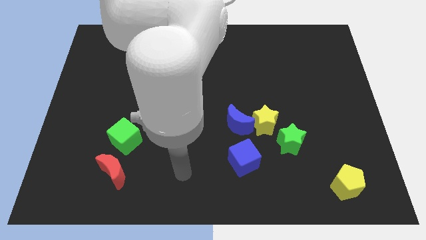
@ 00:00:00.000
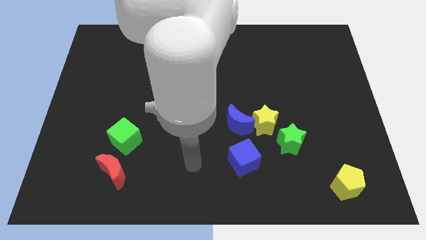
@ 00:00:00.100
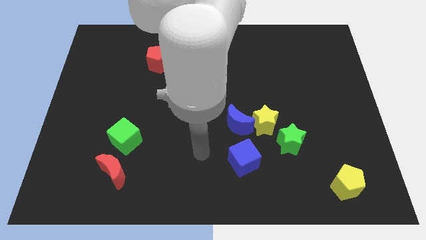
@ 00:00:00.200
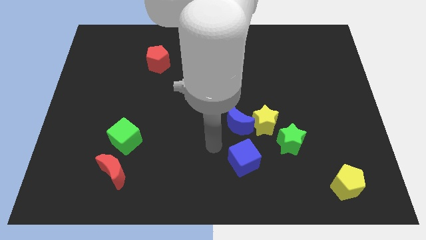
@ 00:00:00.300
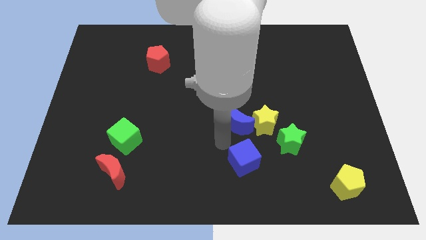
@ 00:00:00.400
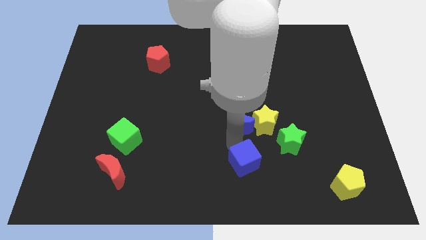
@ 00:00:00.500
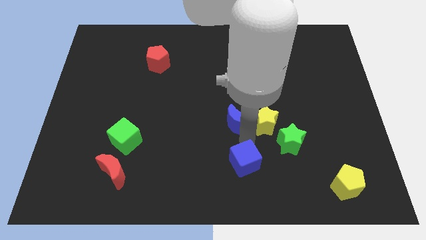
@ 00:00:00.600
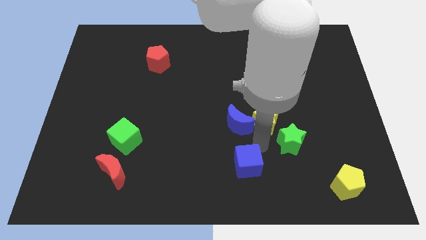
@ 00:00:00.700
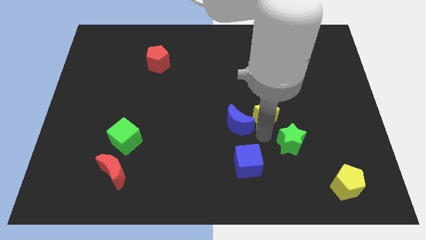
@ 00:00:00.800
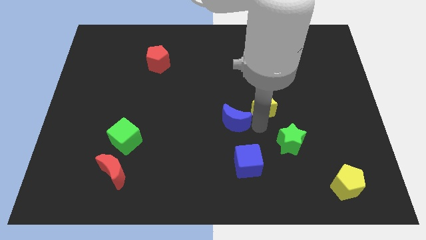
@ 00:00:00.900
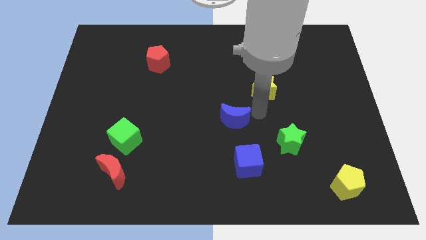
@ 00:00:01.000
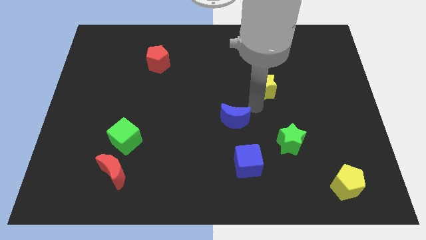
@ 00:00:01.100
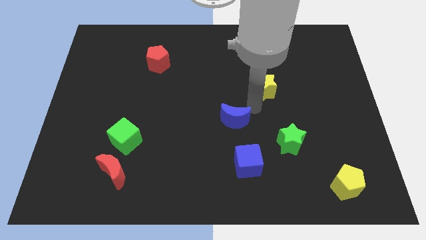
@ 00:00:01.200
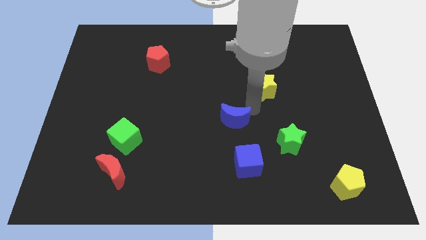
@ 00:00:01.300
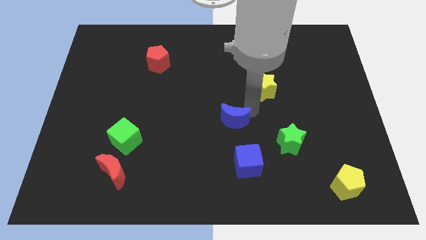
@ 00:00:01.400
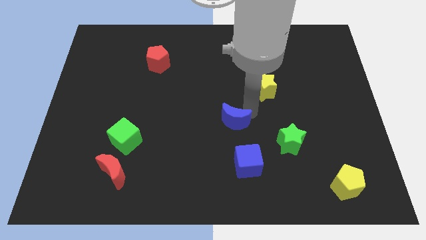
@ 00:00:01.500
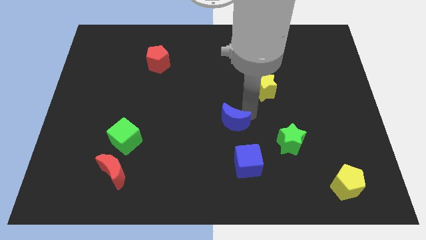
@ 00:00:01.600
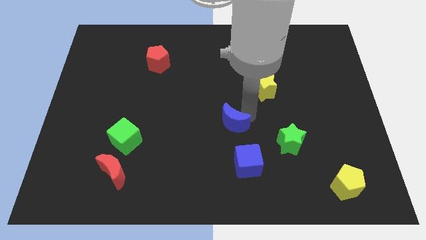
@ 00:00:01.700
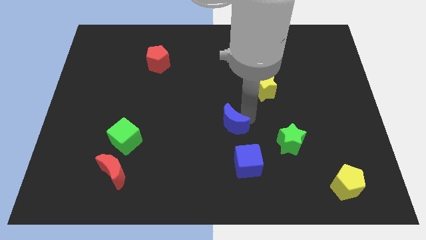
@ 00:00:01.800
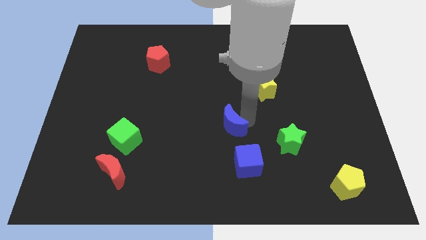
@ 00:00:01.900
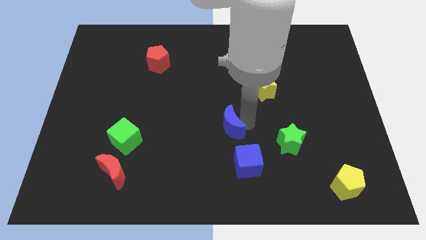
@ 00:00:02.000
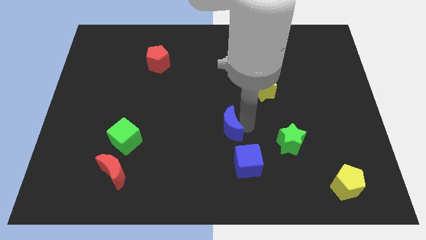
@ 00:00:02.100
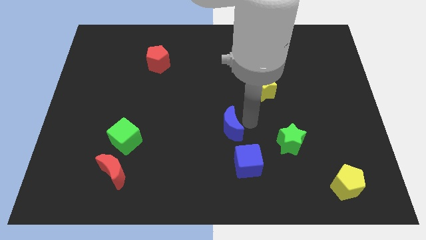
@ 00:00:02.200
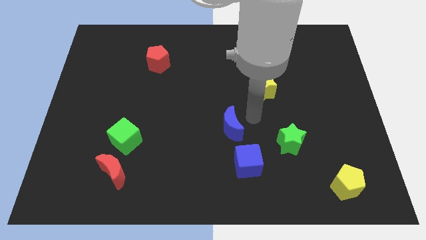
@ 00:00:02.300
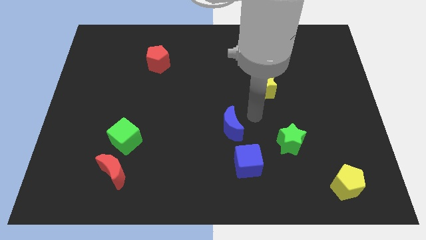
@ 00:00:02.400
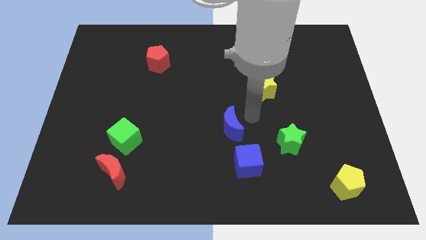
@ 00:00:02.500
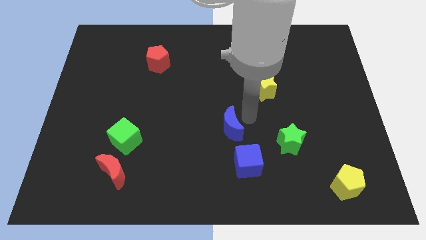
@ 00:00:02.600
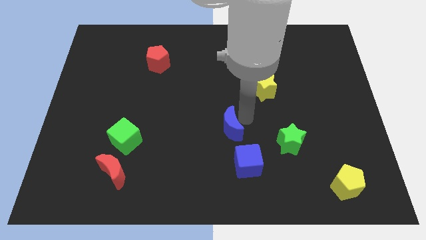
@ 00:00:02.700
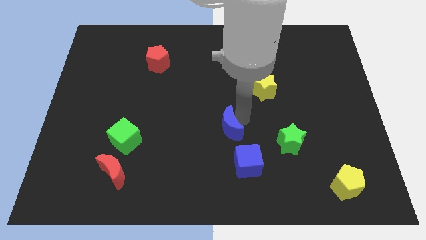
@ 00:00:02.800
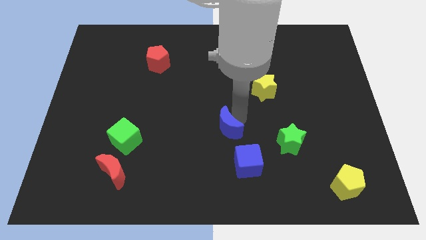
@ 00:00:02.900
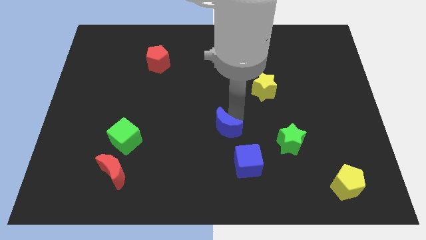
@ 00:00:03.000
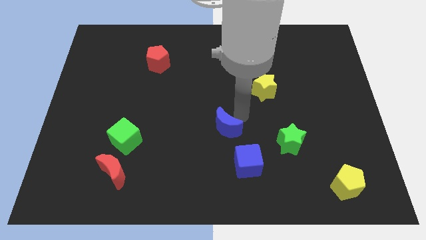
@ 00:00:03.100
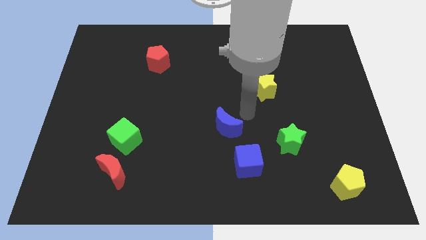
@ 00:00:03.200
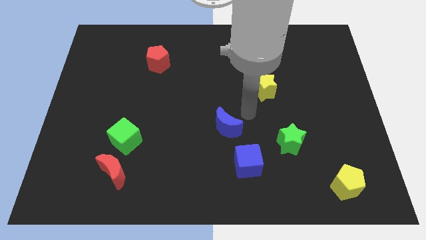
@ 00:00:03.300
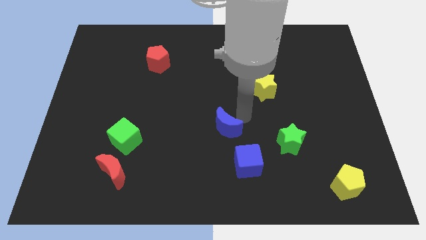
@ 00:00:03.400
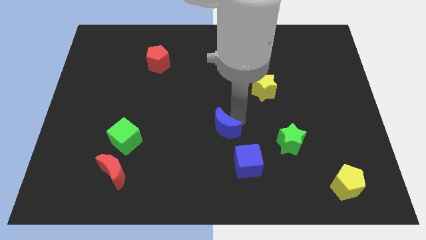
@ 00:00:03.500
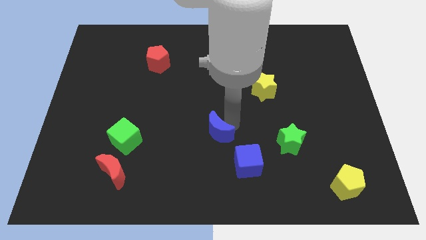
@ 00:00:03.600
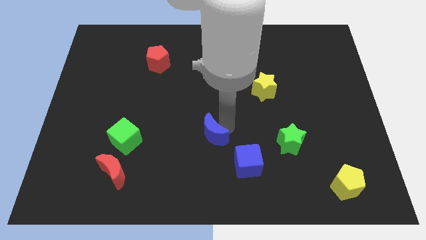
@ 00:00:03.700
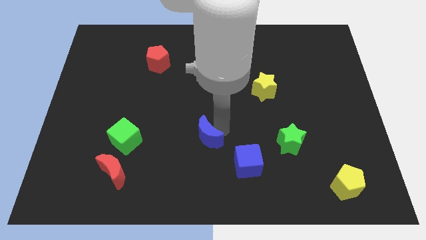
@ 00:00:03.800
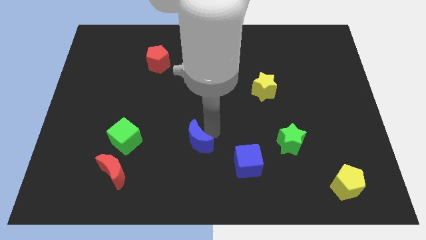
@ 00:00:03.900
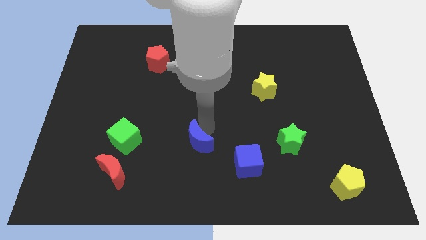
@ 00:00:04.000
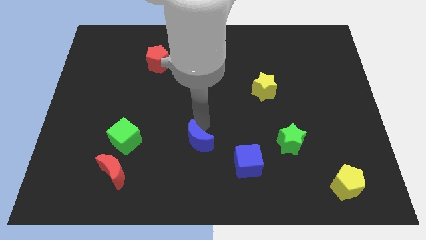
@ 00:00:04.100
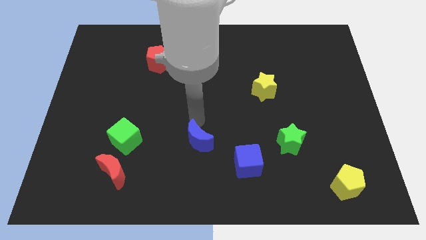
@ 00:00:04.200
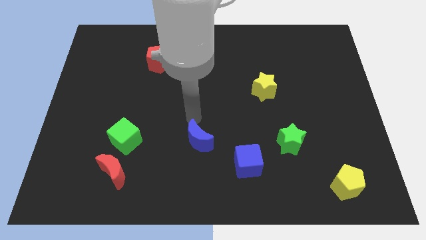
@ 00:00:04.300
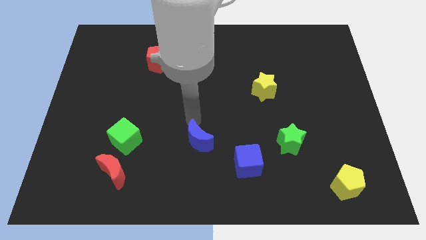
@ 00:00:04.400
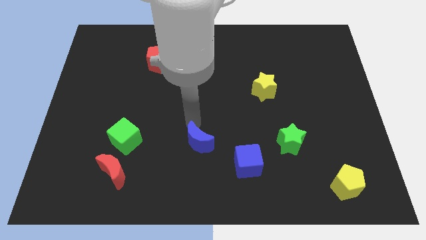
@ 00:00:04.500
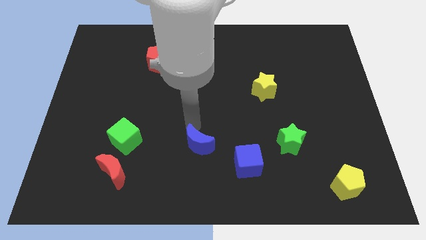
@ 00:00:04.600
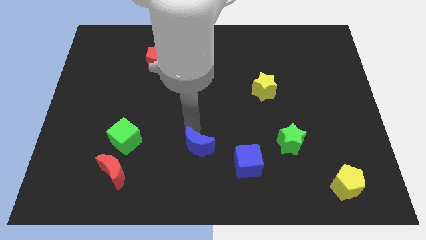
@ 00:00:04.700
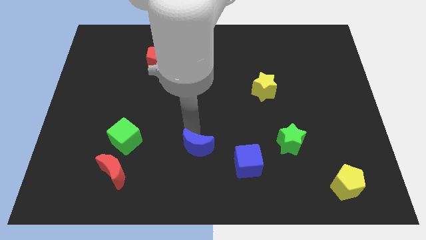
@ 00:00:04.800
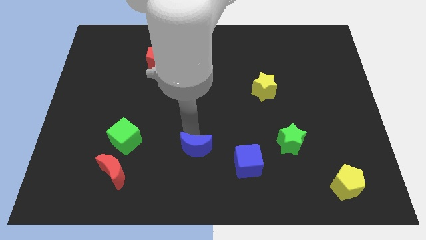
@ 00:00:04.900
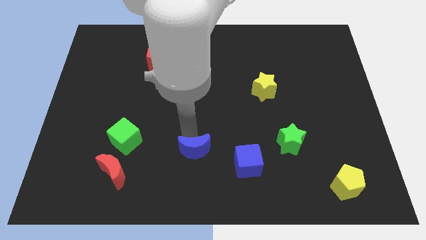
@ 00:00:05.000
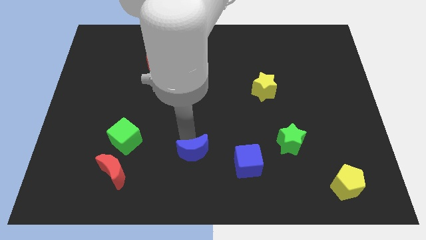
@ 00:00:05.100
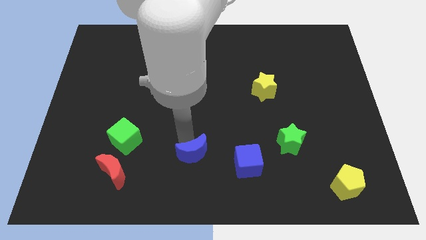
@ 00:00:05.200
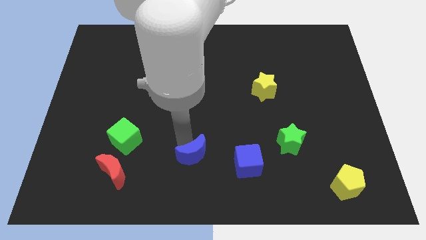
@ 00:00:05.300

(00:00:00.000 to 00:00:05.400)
move the blue moon to the bottom side

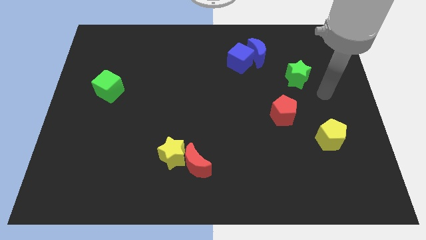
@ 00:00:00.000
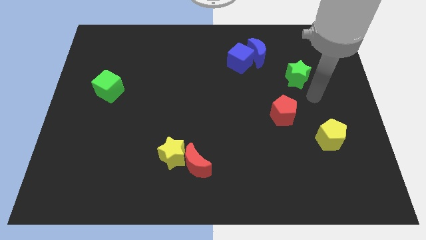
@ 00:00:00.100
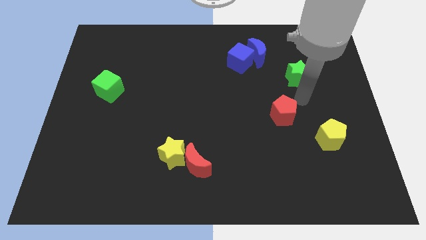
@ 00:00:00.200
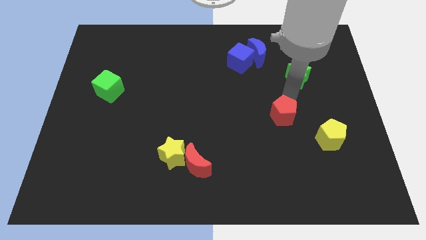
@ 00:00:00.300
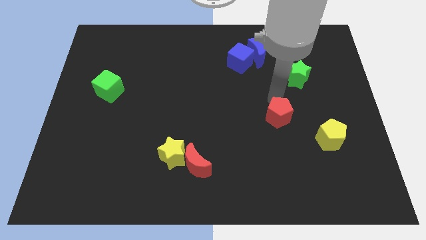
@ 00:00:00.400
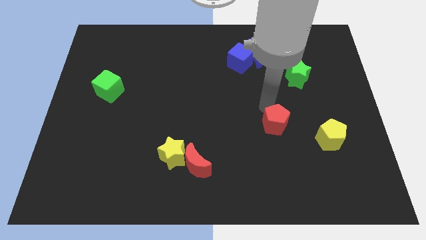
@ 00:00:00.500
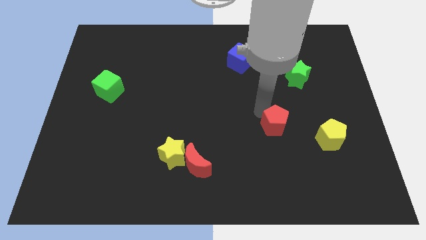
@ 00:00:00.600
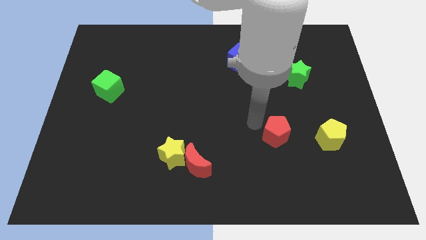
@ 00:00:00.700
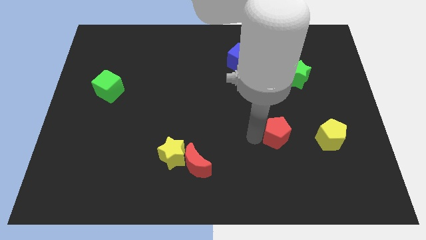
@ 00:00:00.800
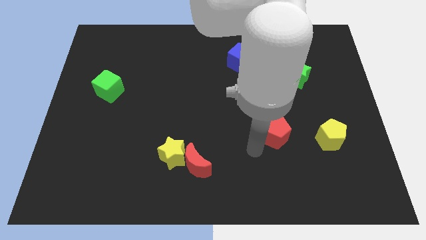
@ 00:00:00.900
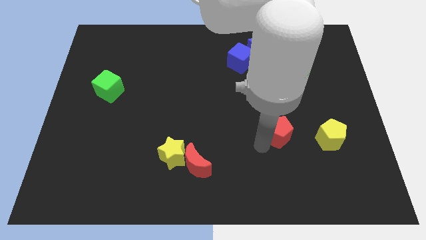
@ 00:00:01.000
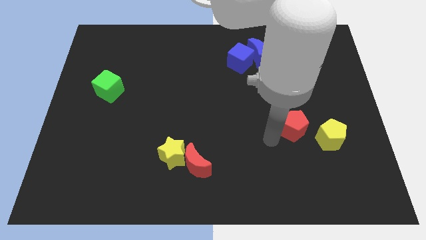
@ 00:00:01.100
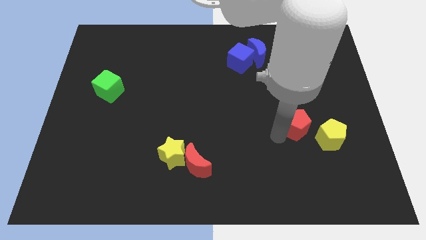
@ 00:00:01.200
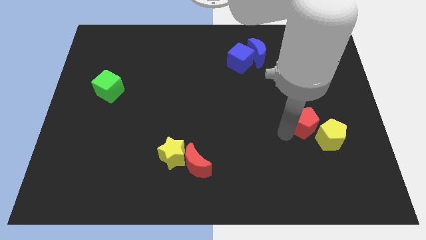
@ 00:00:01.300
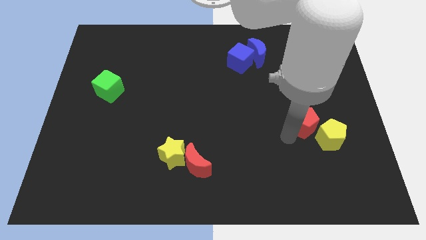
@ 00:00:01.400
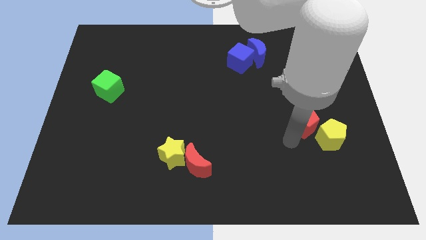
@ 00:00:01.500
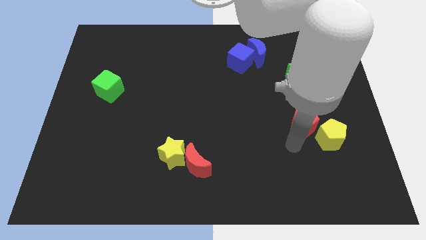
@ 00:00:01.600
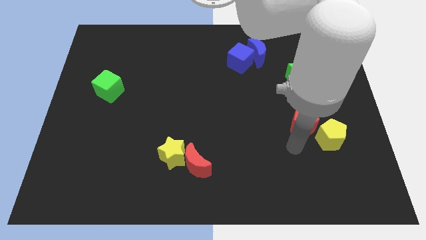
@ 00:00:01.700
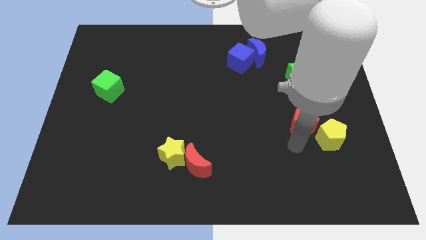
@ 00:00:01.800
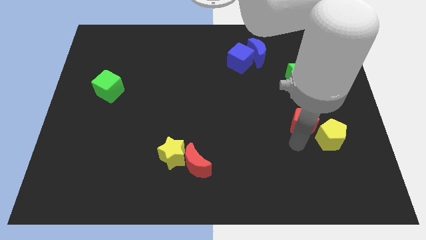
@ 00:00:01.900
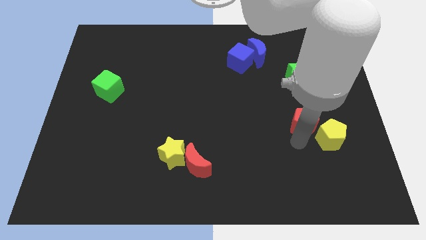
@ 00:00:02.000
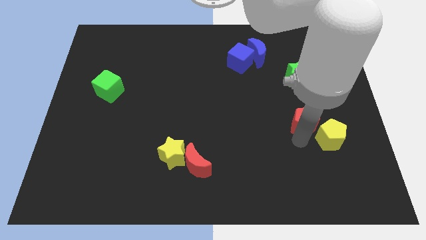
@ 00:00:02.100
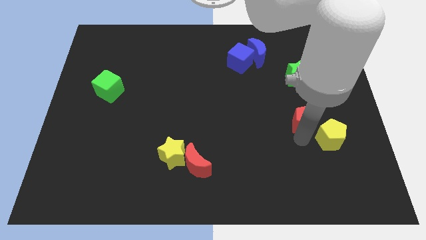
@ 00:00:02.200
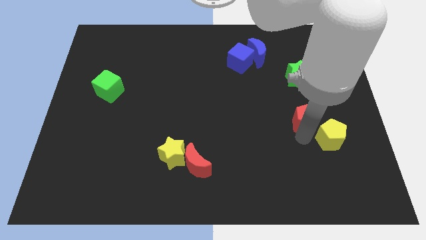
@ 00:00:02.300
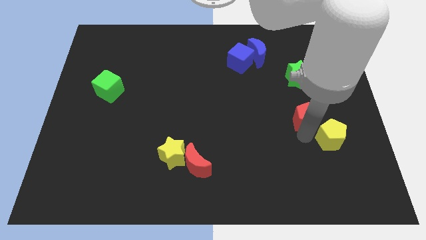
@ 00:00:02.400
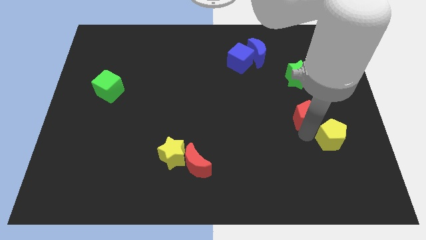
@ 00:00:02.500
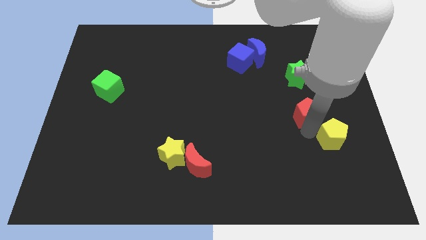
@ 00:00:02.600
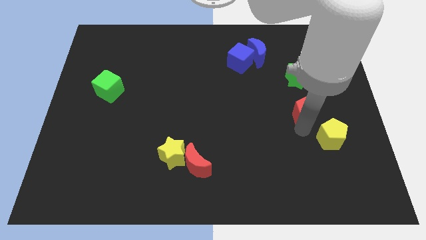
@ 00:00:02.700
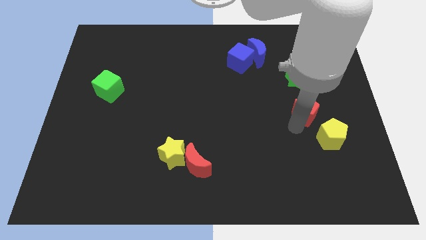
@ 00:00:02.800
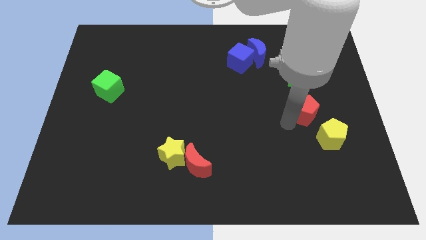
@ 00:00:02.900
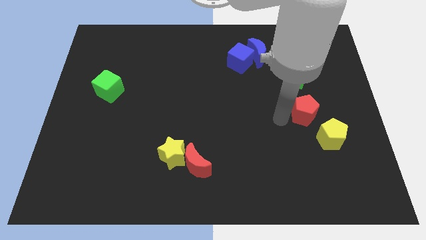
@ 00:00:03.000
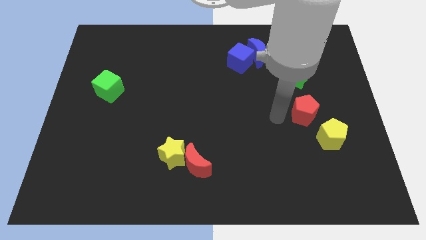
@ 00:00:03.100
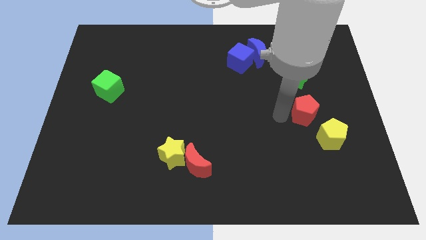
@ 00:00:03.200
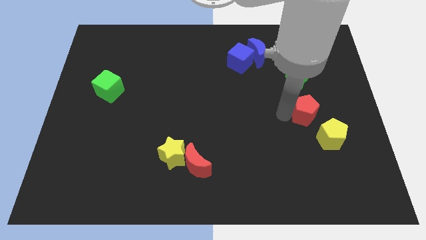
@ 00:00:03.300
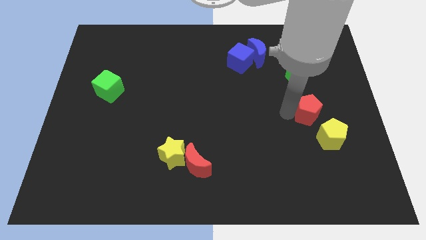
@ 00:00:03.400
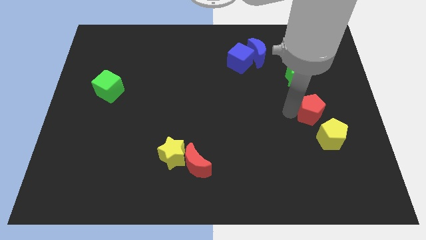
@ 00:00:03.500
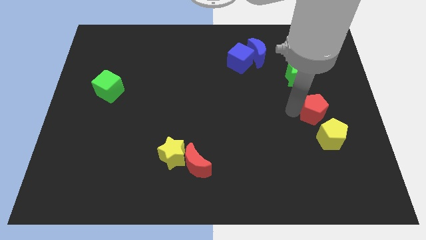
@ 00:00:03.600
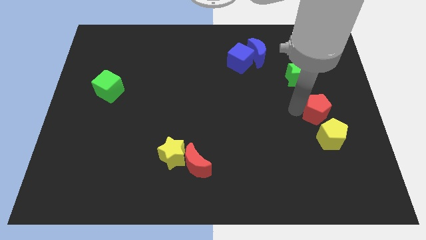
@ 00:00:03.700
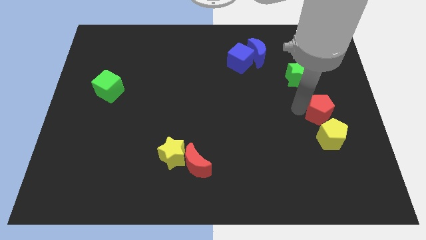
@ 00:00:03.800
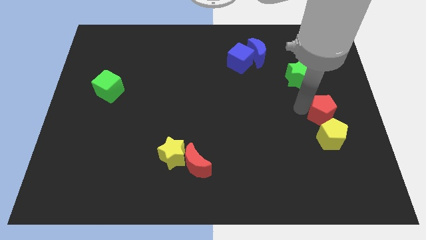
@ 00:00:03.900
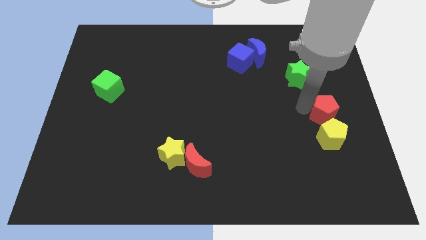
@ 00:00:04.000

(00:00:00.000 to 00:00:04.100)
move the red pentagon to the right side of the board
